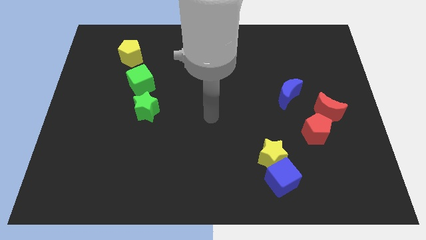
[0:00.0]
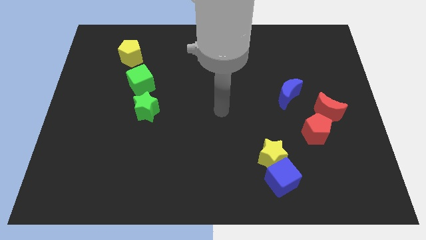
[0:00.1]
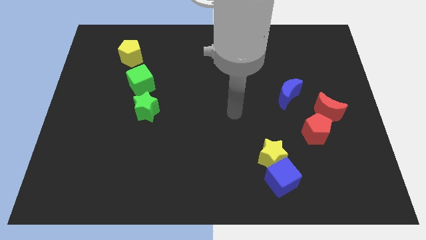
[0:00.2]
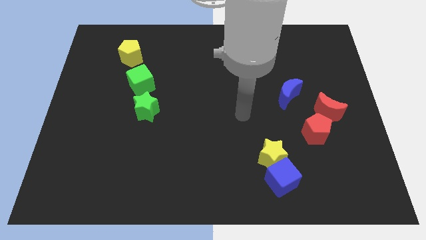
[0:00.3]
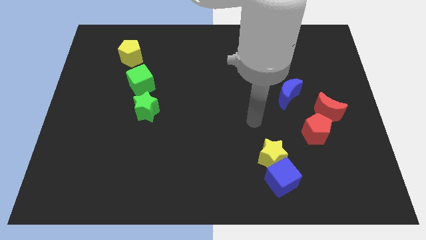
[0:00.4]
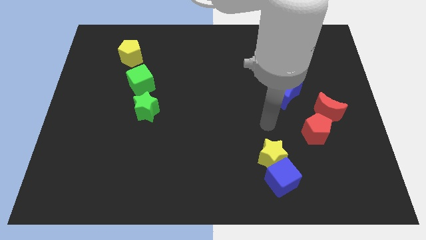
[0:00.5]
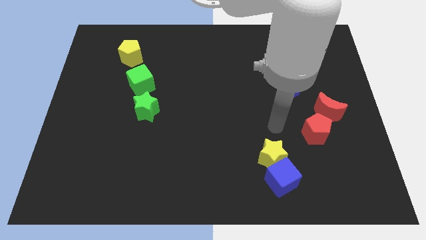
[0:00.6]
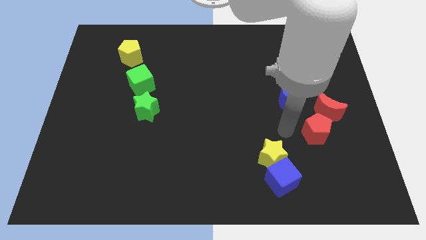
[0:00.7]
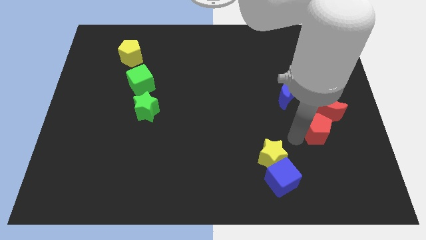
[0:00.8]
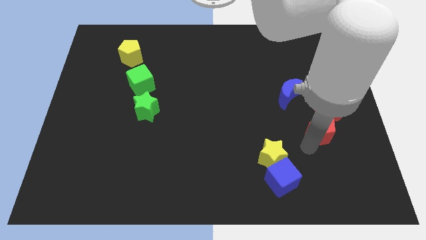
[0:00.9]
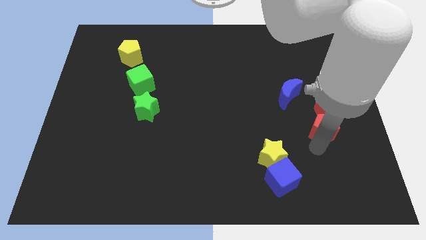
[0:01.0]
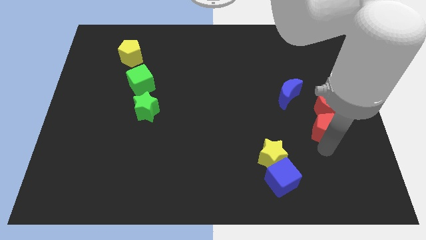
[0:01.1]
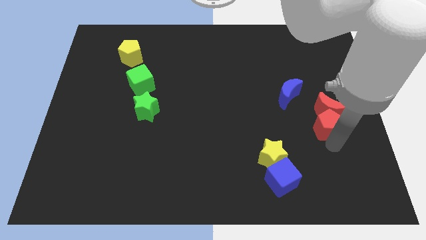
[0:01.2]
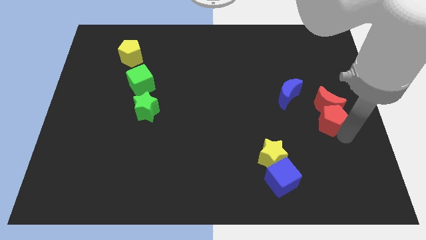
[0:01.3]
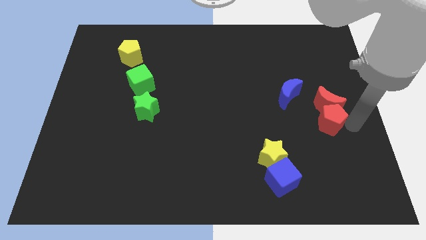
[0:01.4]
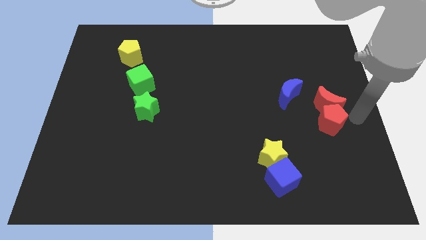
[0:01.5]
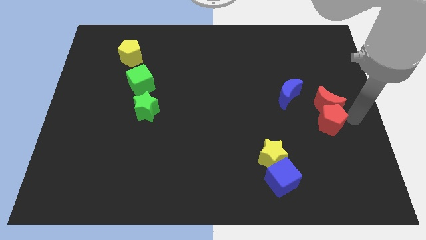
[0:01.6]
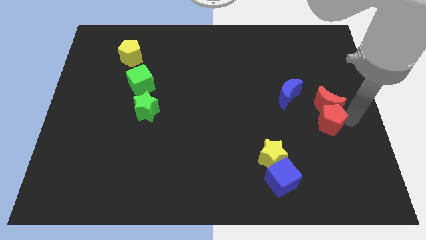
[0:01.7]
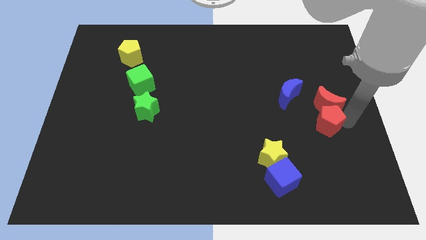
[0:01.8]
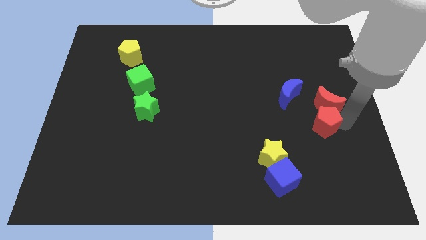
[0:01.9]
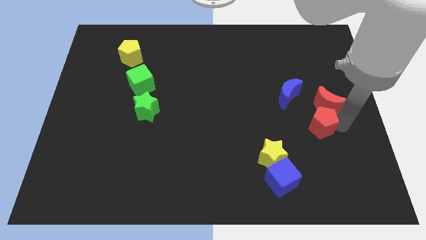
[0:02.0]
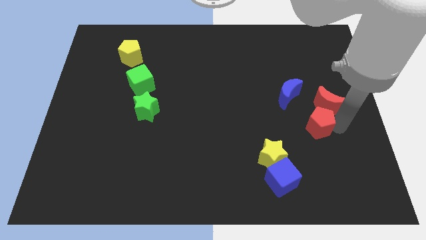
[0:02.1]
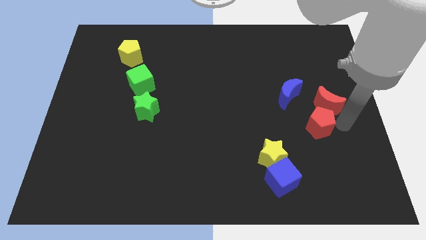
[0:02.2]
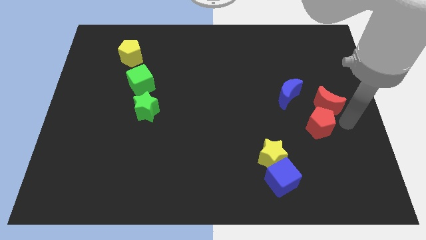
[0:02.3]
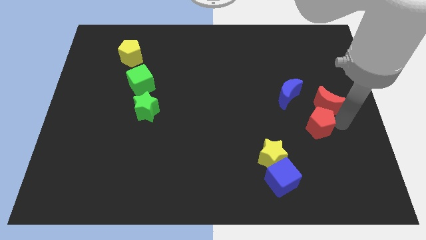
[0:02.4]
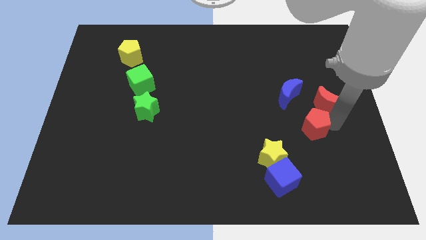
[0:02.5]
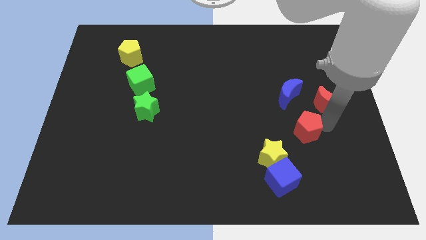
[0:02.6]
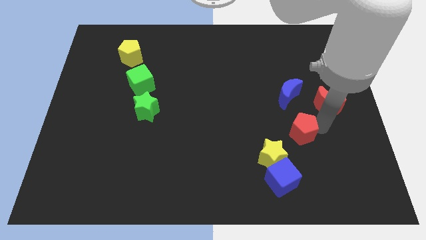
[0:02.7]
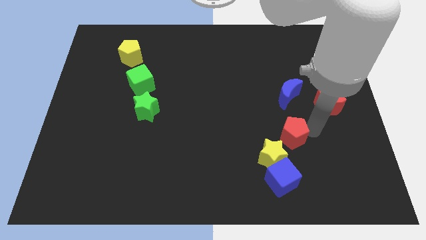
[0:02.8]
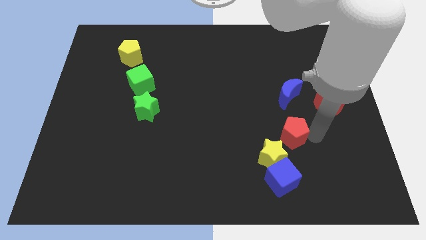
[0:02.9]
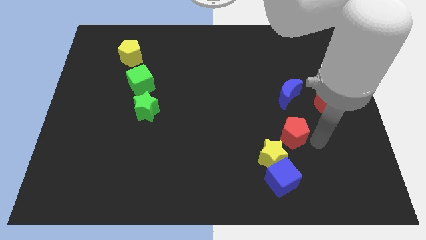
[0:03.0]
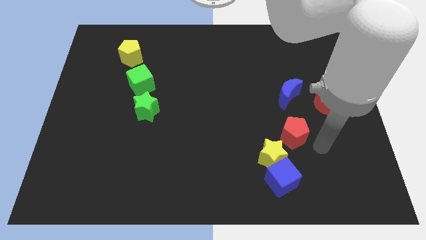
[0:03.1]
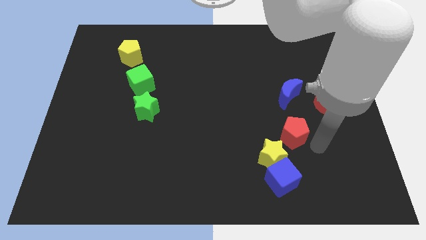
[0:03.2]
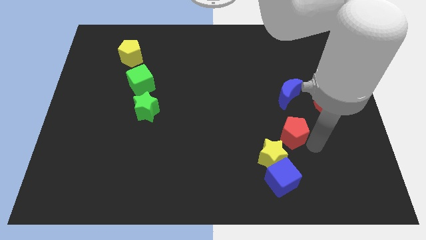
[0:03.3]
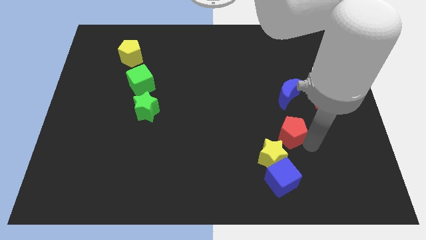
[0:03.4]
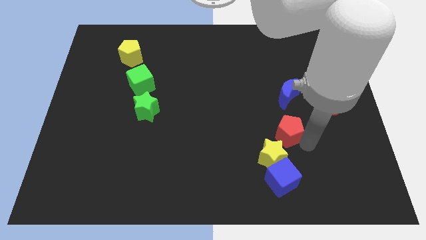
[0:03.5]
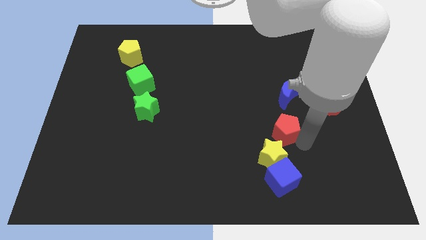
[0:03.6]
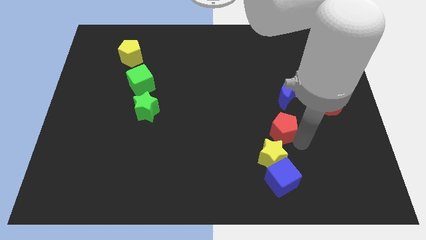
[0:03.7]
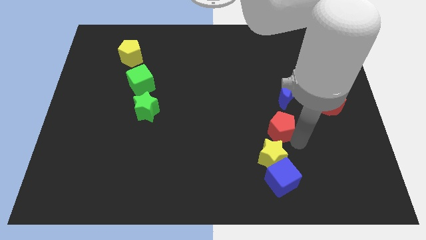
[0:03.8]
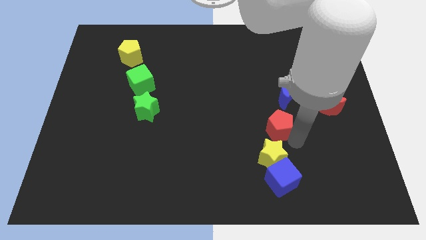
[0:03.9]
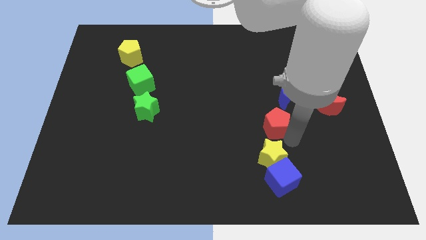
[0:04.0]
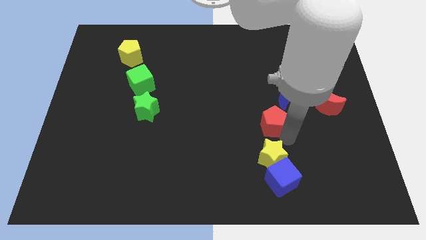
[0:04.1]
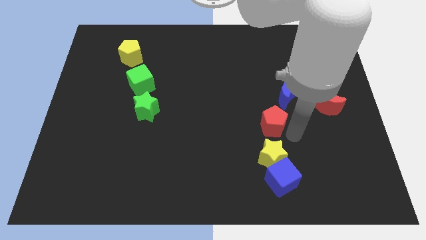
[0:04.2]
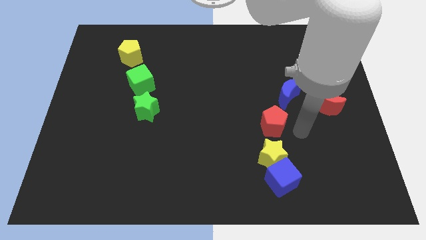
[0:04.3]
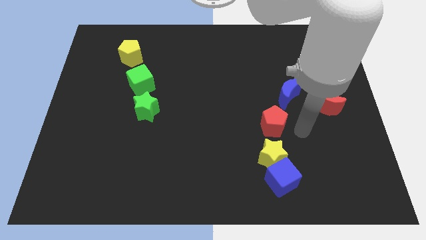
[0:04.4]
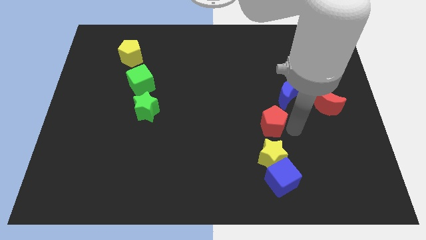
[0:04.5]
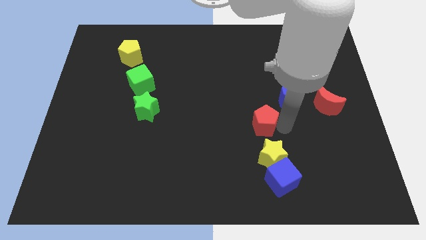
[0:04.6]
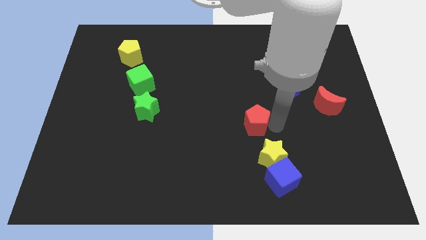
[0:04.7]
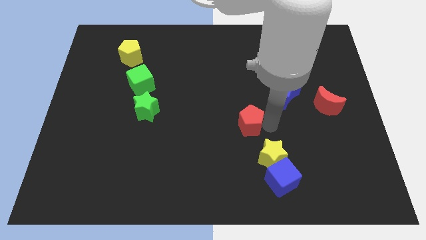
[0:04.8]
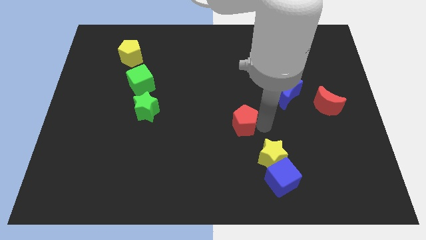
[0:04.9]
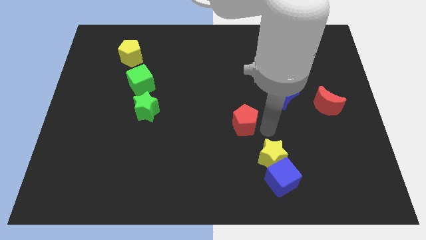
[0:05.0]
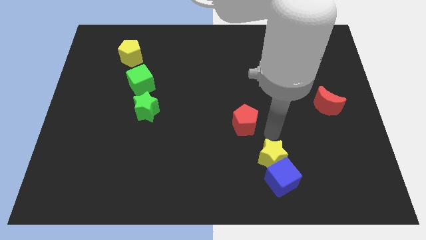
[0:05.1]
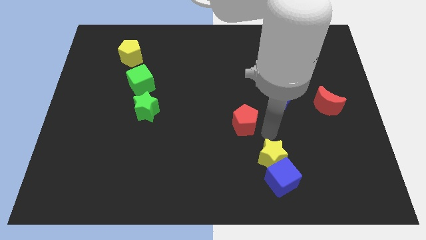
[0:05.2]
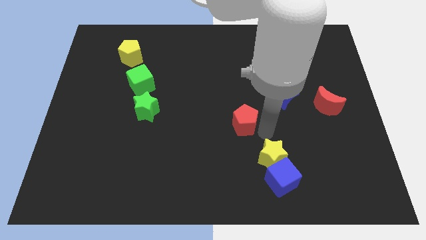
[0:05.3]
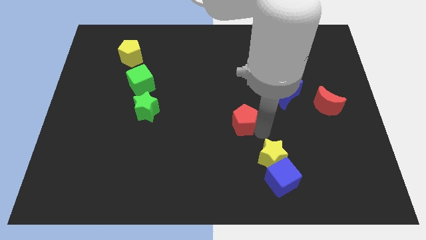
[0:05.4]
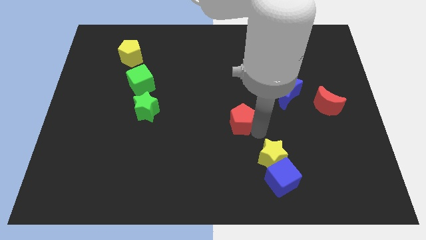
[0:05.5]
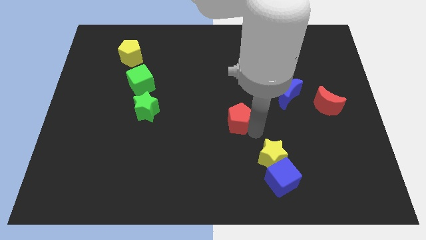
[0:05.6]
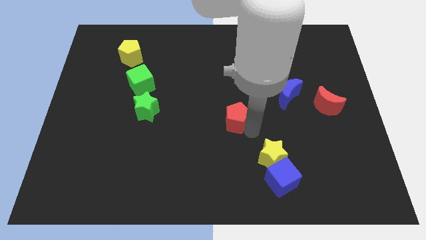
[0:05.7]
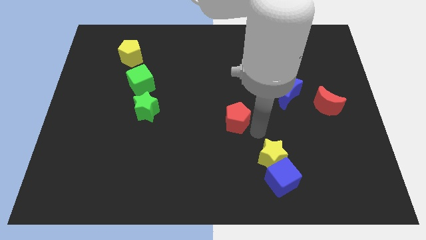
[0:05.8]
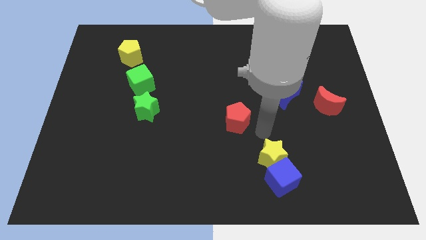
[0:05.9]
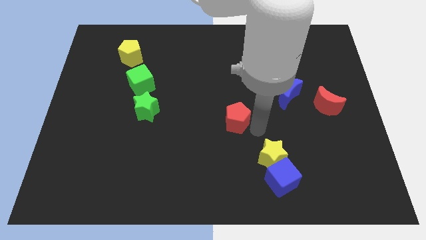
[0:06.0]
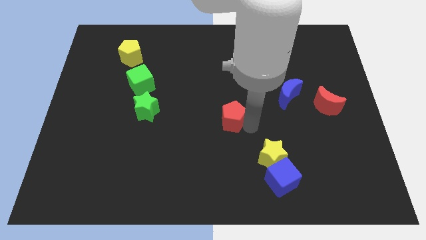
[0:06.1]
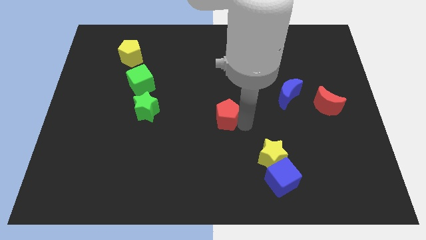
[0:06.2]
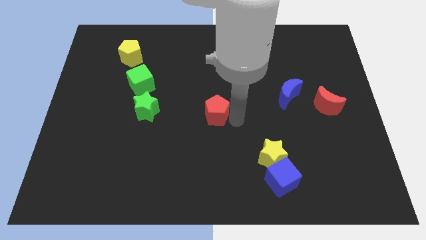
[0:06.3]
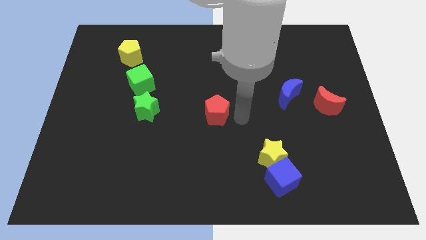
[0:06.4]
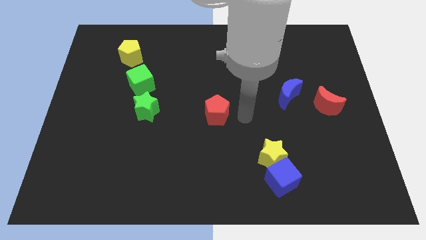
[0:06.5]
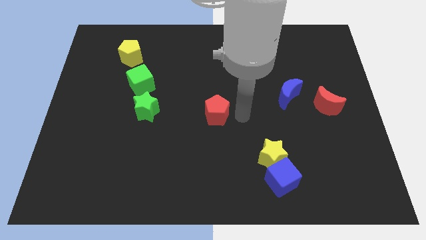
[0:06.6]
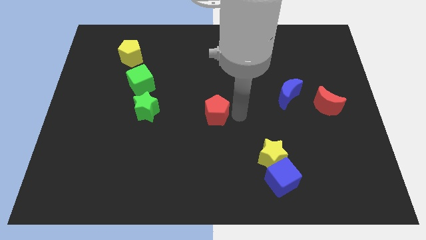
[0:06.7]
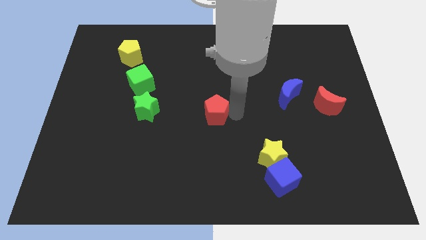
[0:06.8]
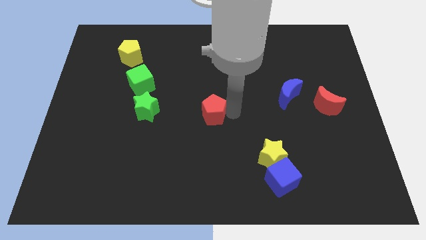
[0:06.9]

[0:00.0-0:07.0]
push the red pentagon to the right of the green star

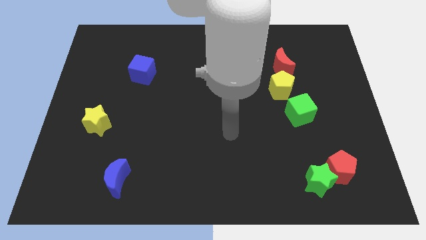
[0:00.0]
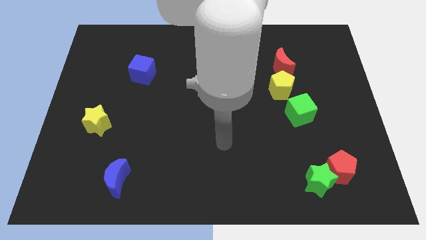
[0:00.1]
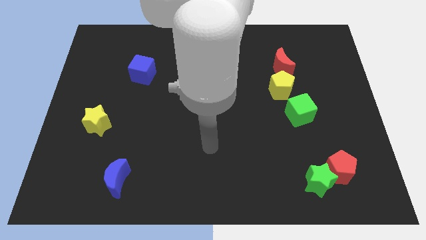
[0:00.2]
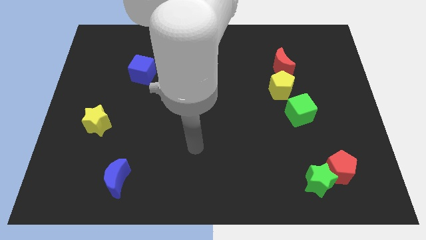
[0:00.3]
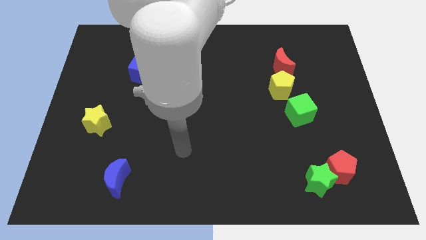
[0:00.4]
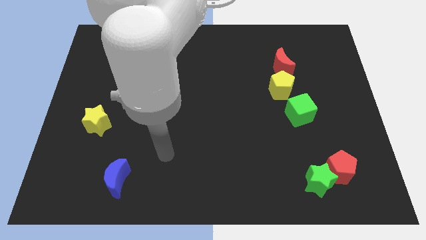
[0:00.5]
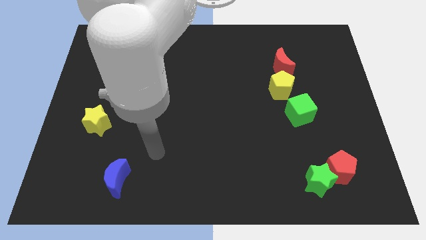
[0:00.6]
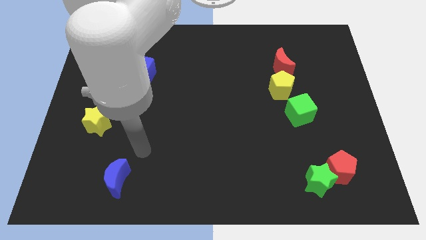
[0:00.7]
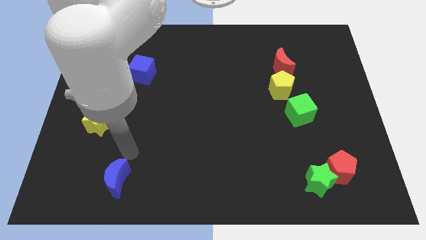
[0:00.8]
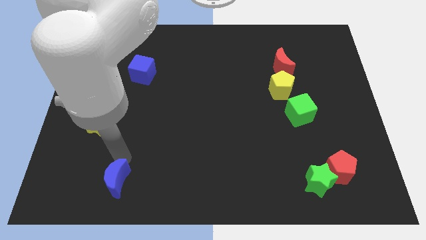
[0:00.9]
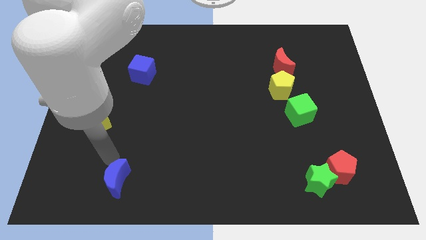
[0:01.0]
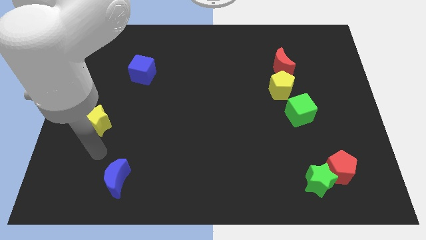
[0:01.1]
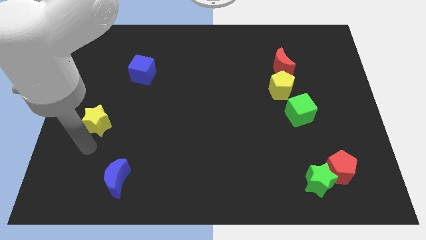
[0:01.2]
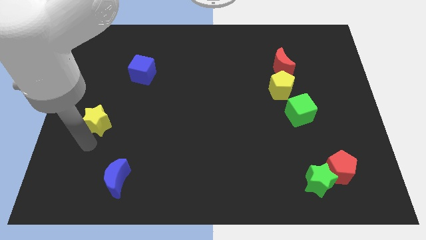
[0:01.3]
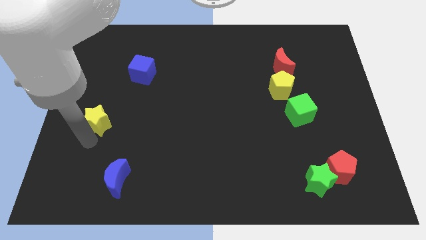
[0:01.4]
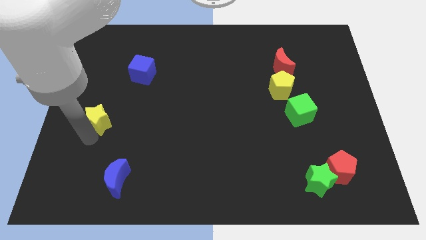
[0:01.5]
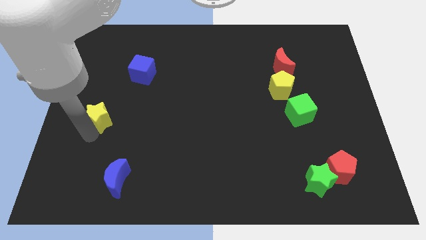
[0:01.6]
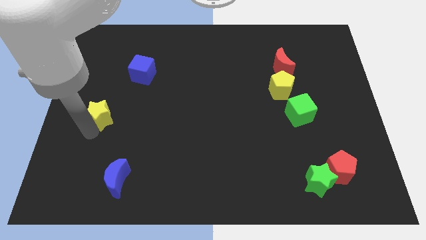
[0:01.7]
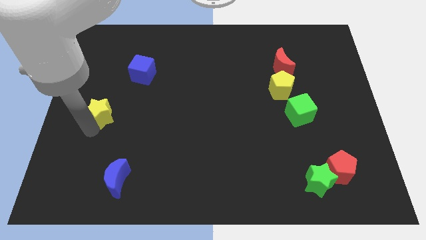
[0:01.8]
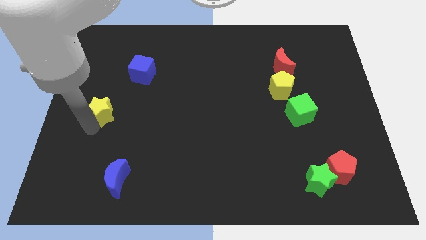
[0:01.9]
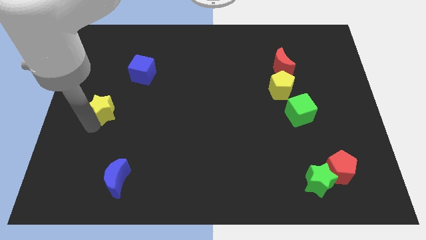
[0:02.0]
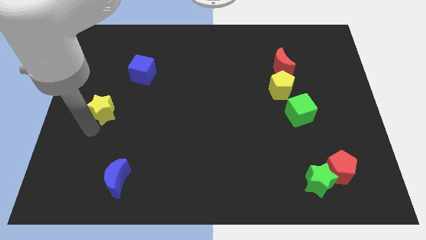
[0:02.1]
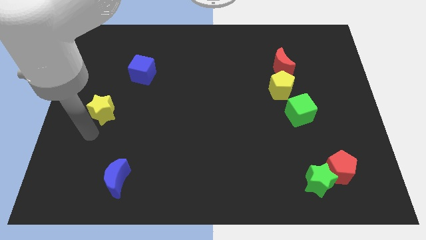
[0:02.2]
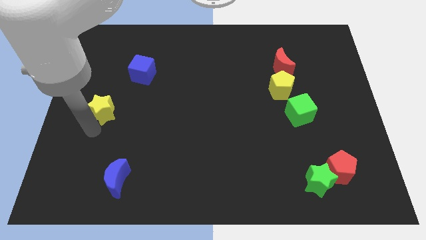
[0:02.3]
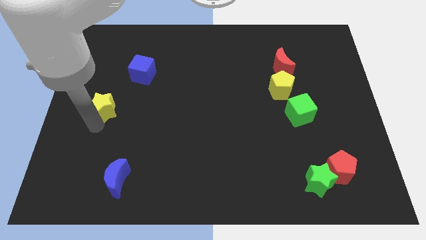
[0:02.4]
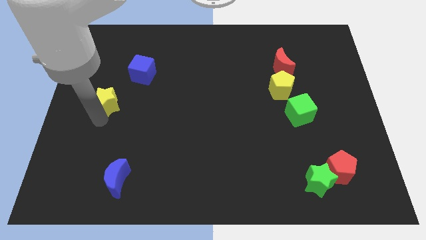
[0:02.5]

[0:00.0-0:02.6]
move the yellow star diagonally down and to the left of the blue cube
